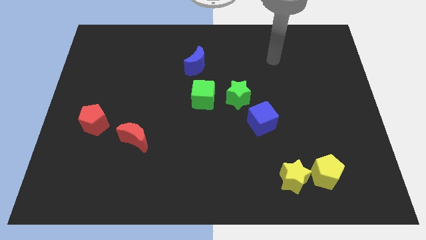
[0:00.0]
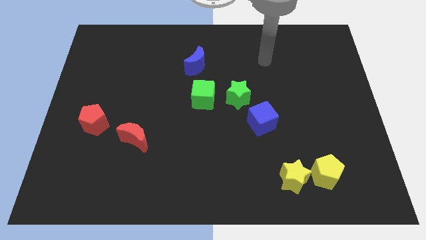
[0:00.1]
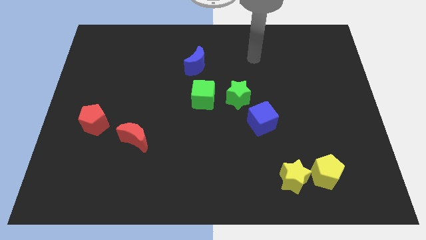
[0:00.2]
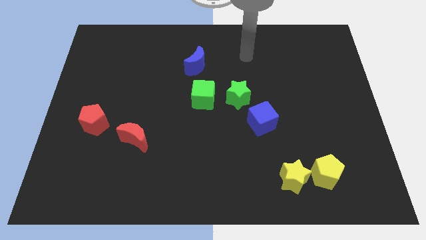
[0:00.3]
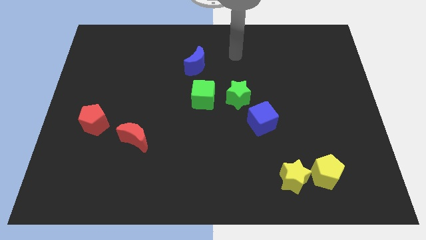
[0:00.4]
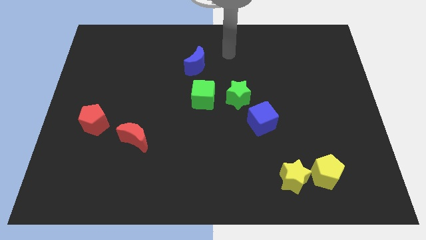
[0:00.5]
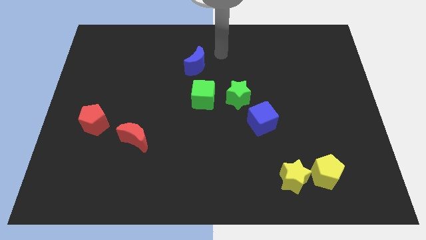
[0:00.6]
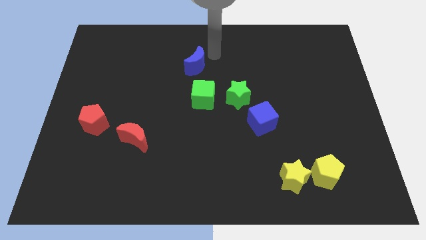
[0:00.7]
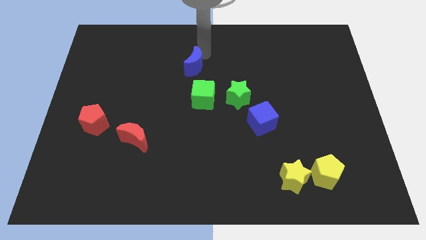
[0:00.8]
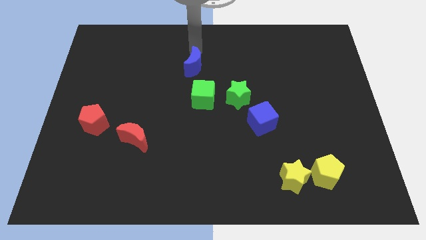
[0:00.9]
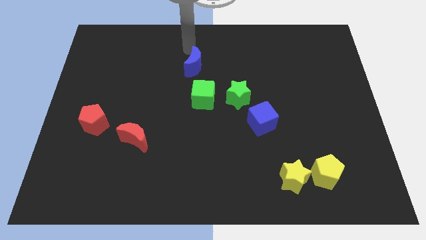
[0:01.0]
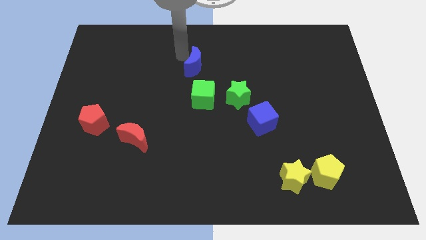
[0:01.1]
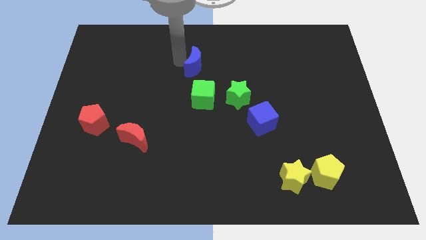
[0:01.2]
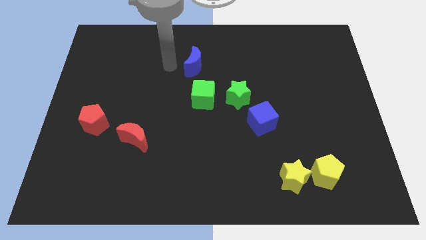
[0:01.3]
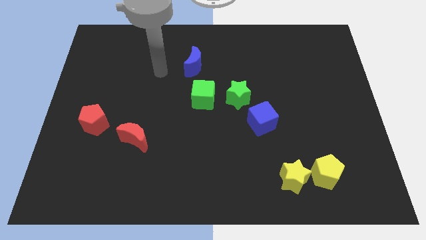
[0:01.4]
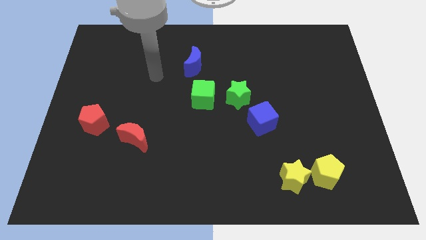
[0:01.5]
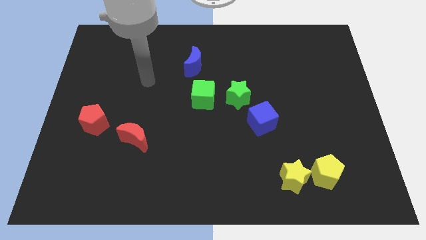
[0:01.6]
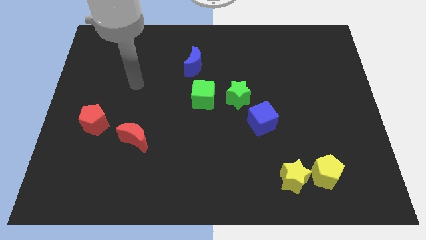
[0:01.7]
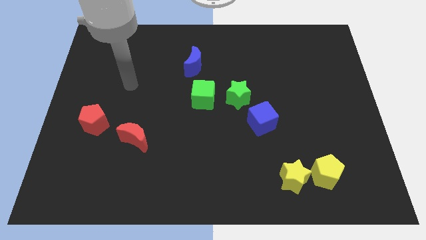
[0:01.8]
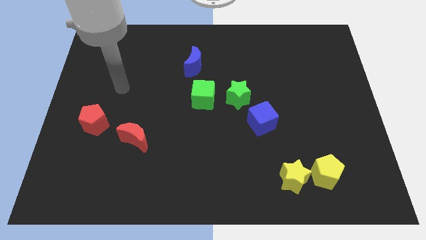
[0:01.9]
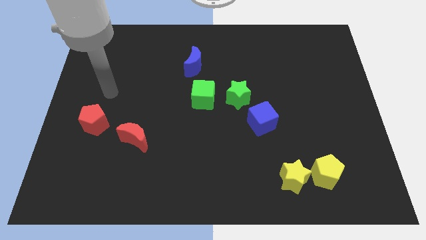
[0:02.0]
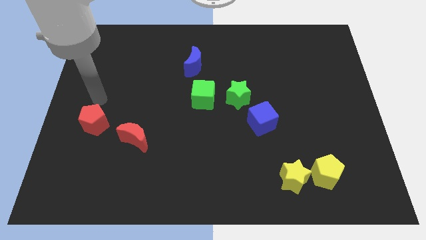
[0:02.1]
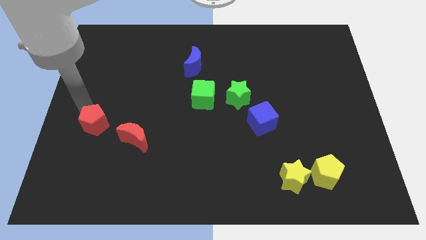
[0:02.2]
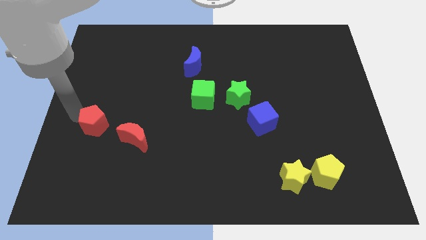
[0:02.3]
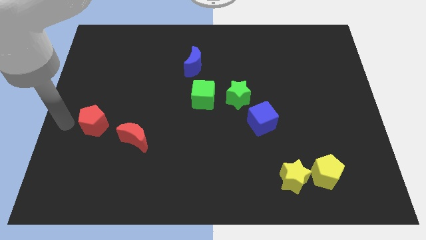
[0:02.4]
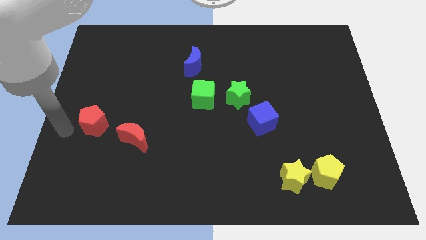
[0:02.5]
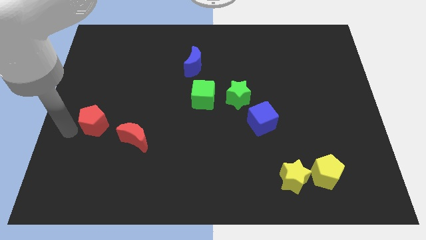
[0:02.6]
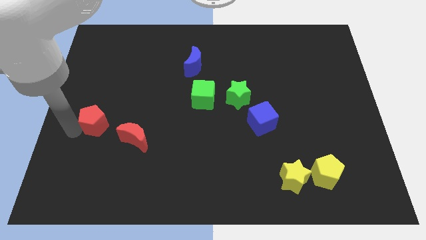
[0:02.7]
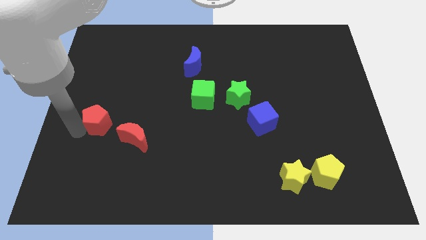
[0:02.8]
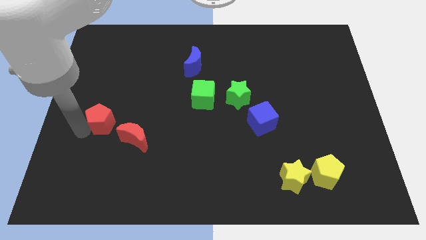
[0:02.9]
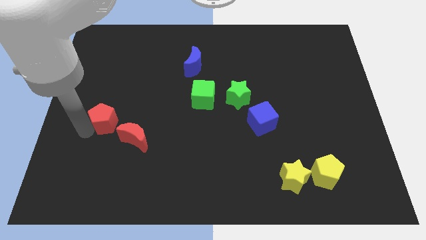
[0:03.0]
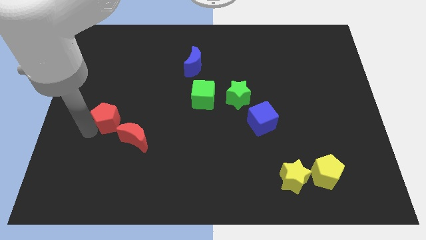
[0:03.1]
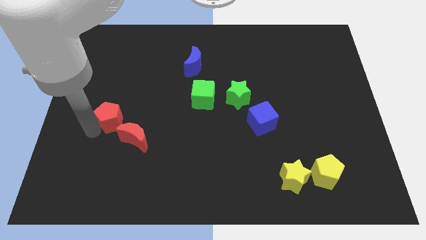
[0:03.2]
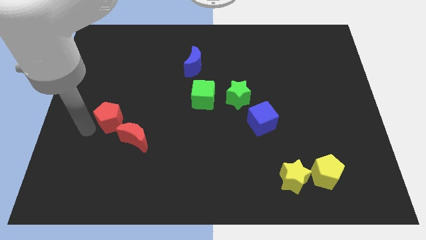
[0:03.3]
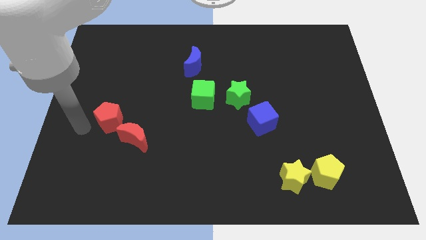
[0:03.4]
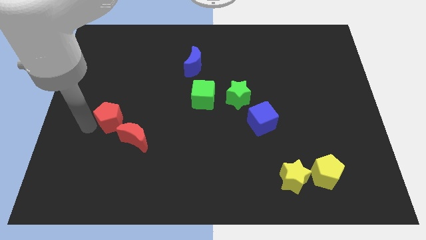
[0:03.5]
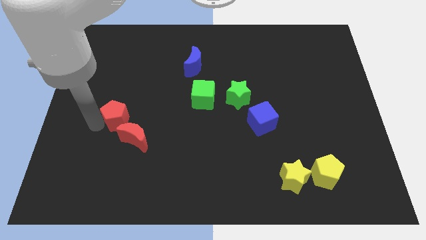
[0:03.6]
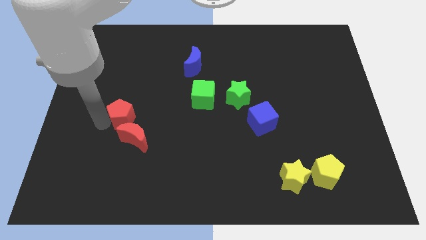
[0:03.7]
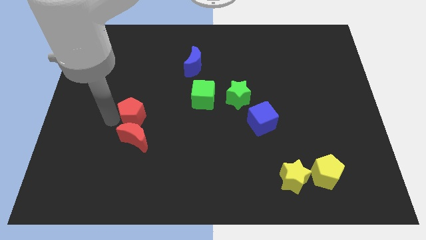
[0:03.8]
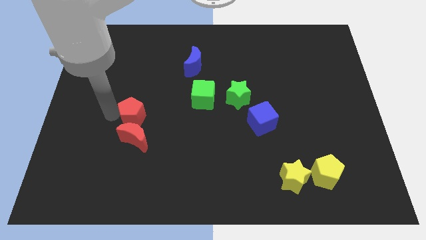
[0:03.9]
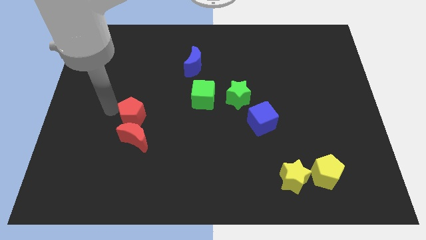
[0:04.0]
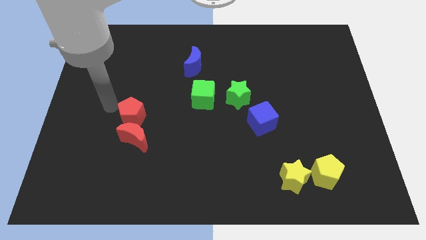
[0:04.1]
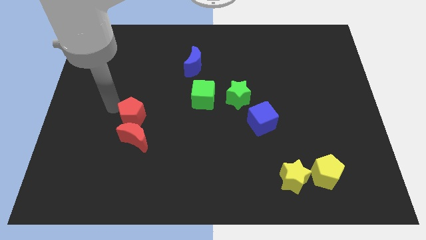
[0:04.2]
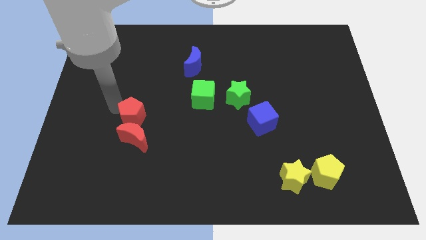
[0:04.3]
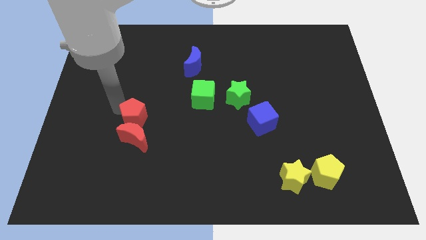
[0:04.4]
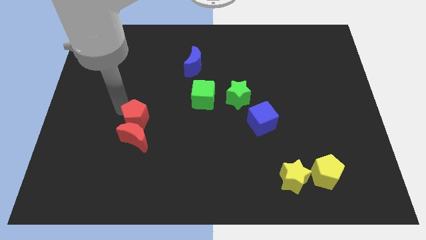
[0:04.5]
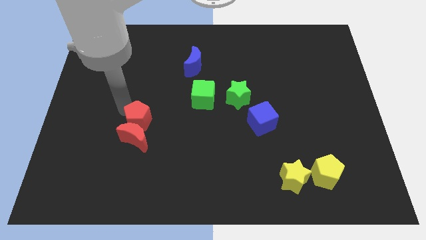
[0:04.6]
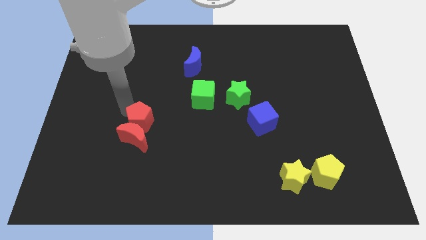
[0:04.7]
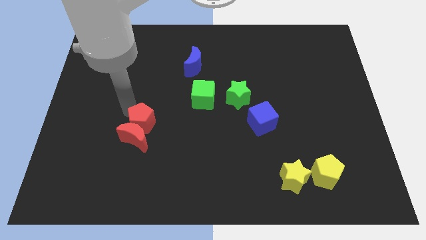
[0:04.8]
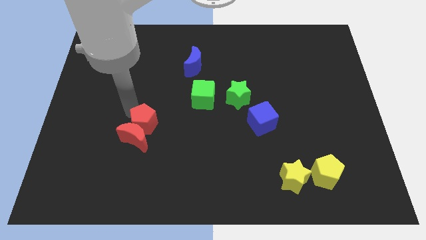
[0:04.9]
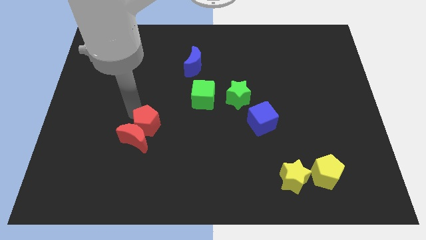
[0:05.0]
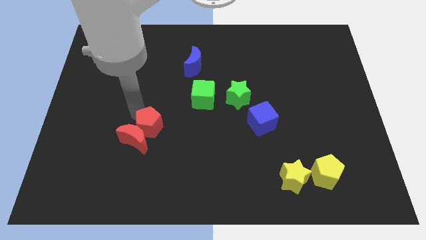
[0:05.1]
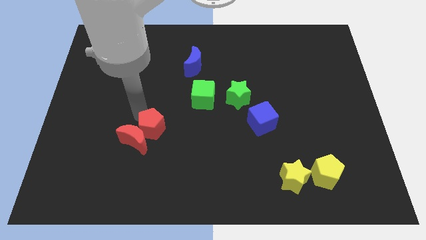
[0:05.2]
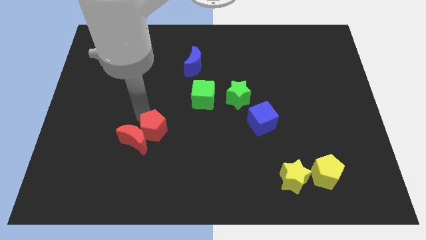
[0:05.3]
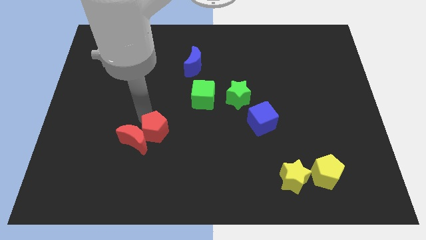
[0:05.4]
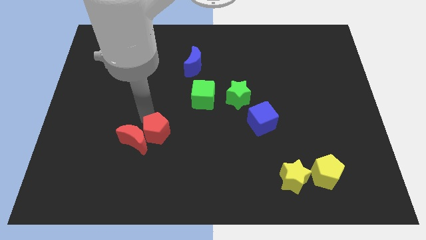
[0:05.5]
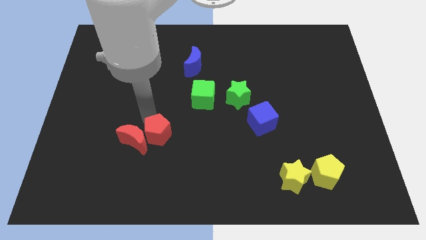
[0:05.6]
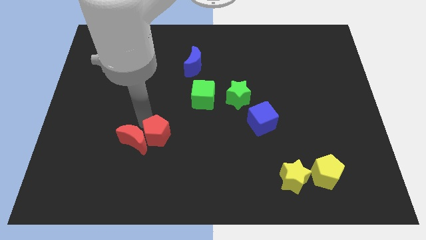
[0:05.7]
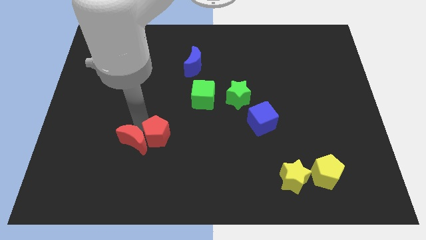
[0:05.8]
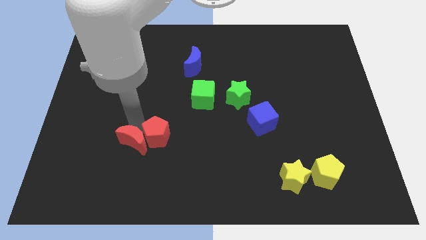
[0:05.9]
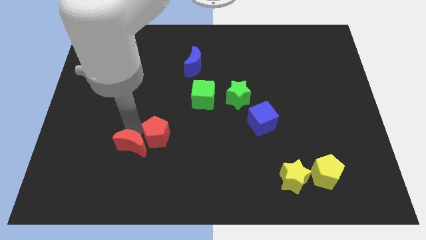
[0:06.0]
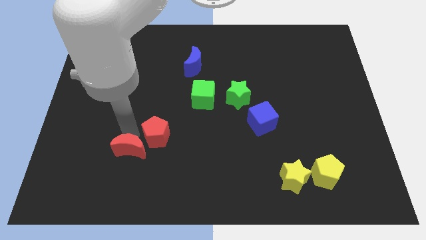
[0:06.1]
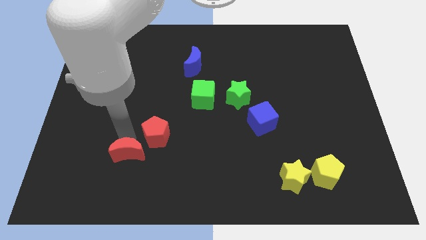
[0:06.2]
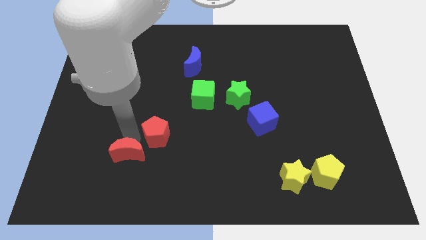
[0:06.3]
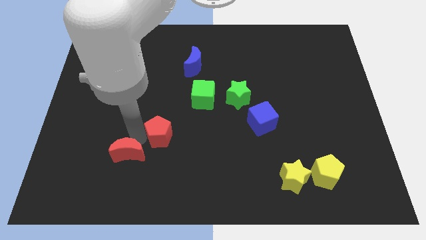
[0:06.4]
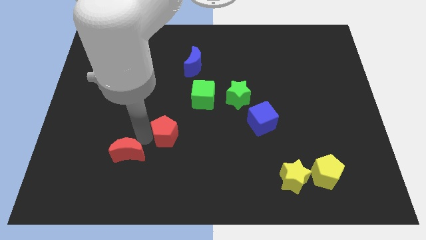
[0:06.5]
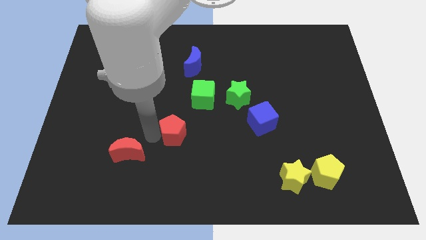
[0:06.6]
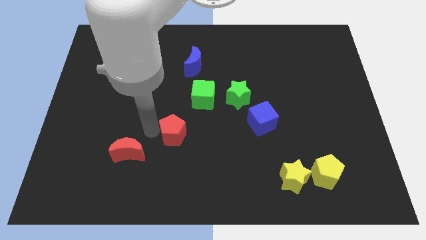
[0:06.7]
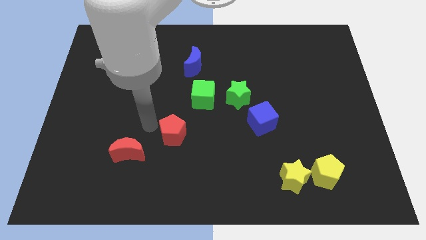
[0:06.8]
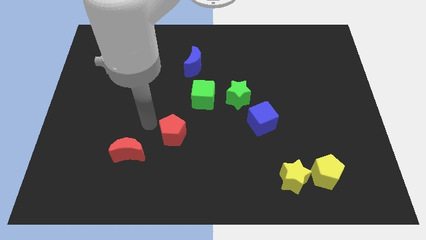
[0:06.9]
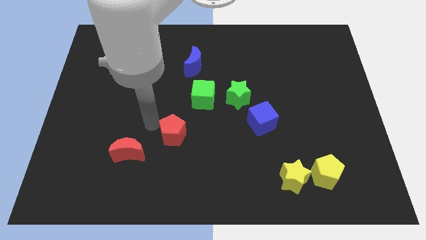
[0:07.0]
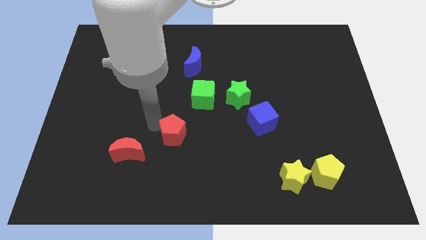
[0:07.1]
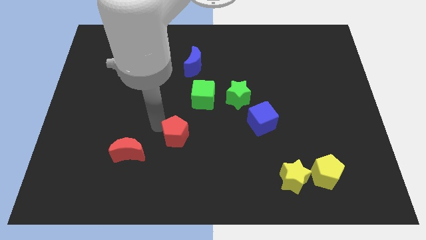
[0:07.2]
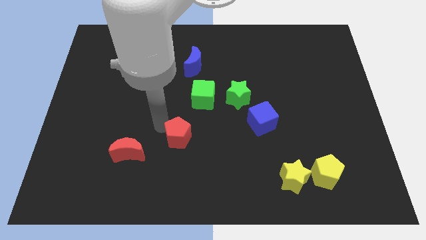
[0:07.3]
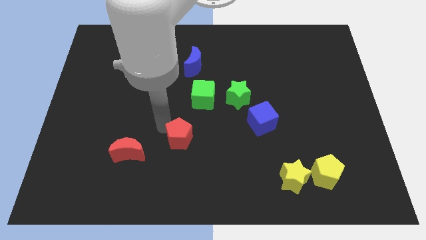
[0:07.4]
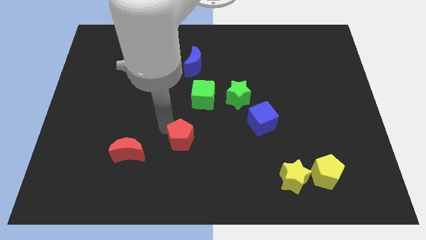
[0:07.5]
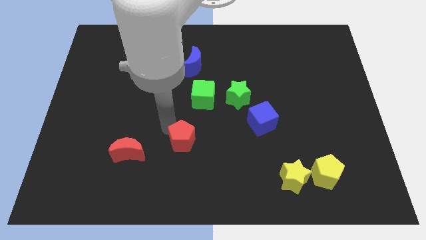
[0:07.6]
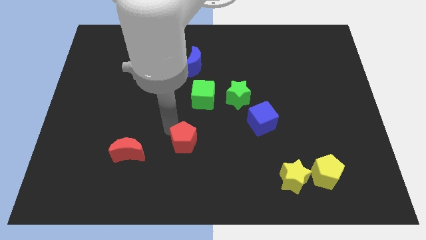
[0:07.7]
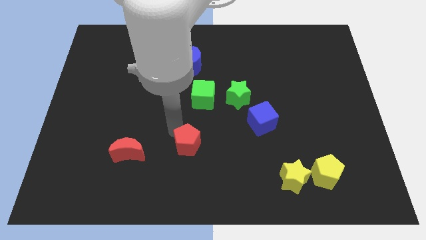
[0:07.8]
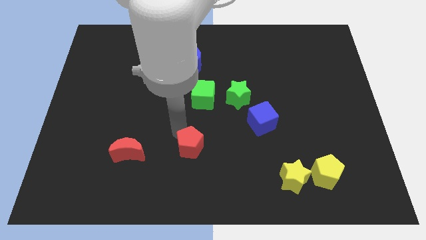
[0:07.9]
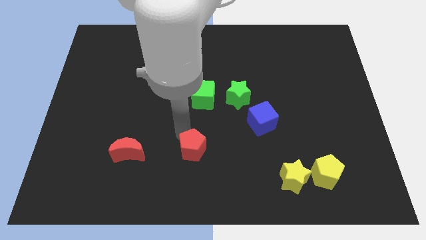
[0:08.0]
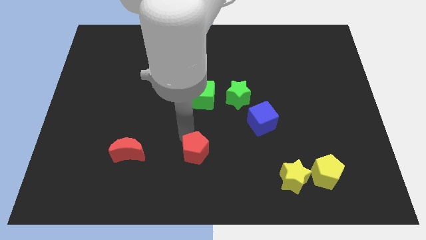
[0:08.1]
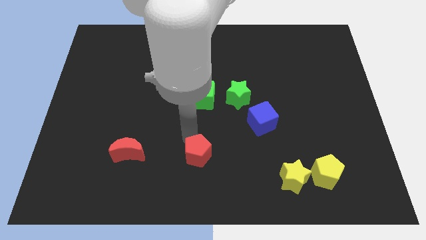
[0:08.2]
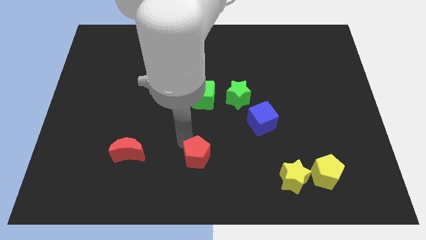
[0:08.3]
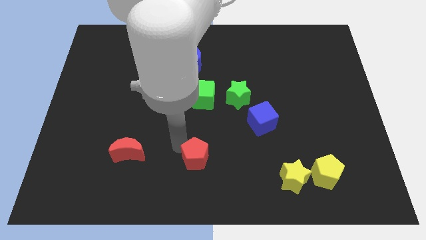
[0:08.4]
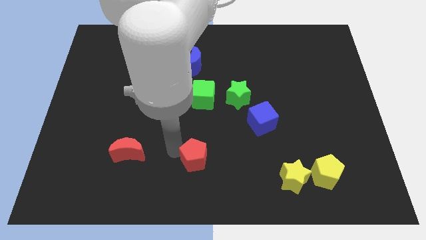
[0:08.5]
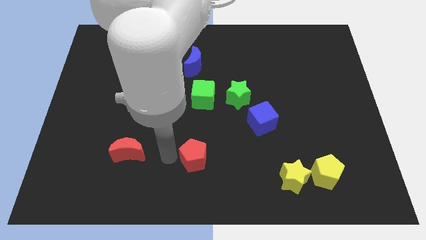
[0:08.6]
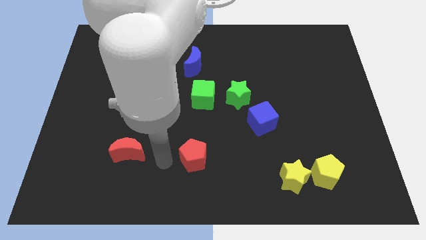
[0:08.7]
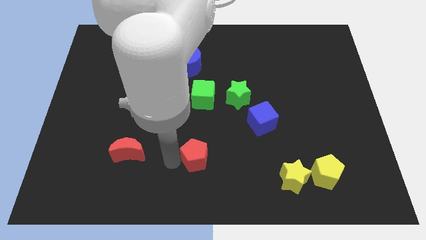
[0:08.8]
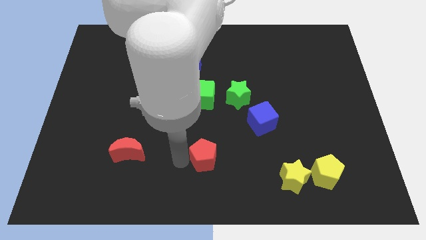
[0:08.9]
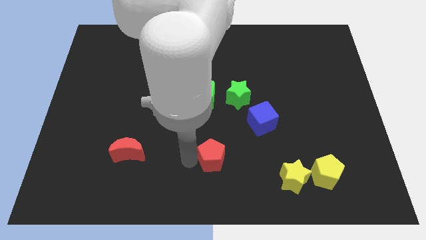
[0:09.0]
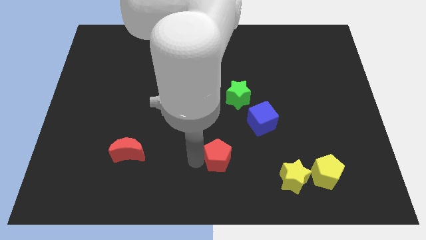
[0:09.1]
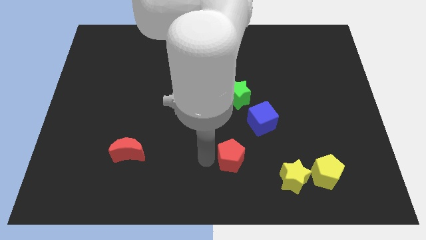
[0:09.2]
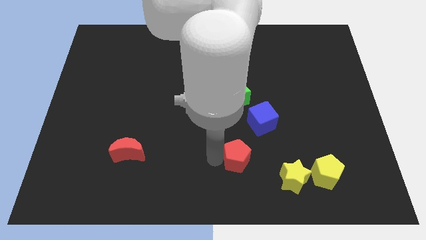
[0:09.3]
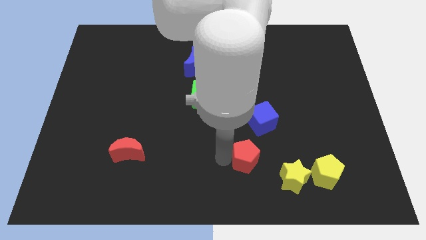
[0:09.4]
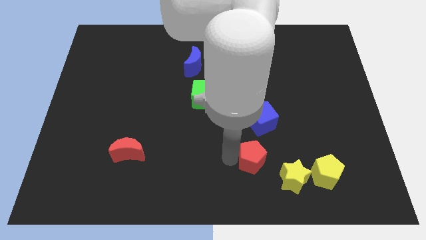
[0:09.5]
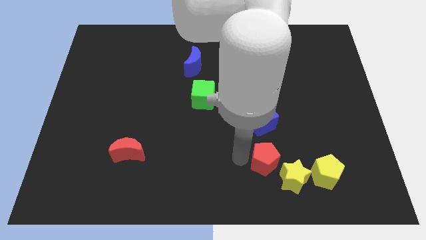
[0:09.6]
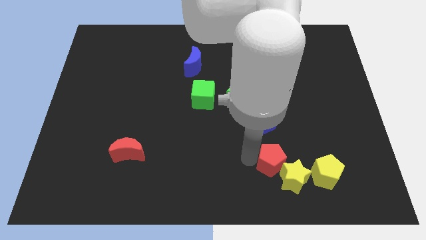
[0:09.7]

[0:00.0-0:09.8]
slide the red pentagon to the yellow star
